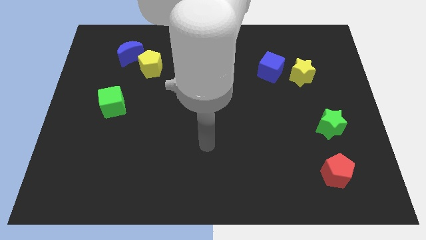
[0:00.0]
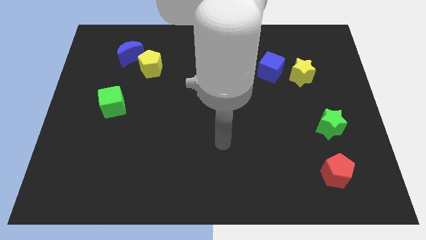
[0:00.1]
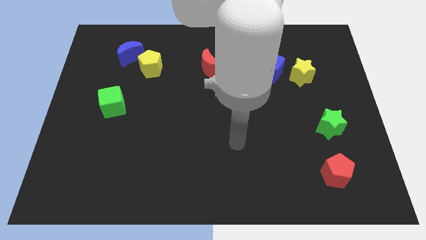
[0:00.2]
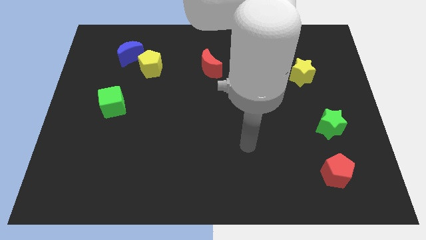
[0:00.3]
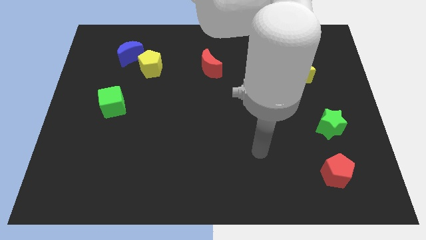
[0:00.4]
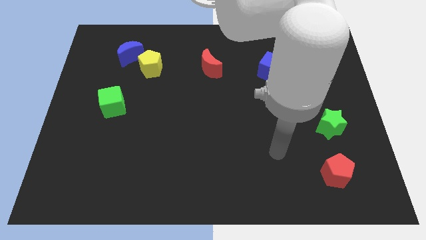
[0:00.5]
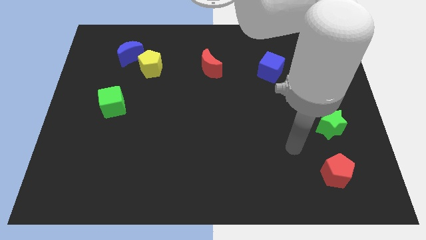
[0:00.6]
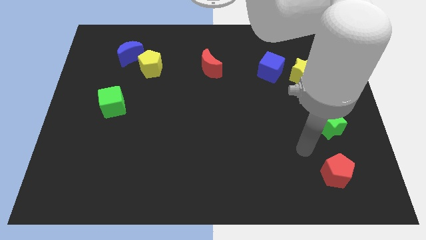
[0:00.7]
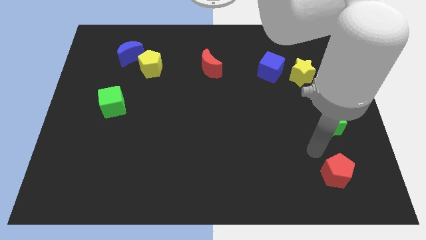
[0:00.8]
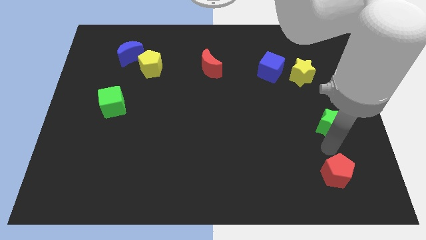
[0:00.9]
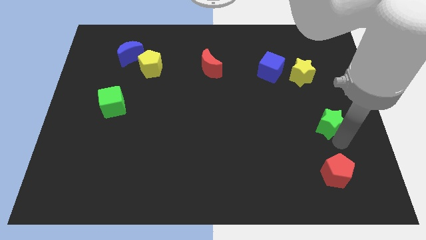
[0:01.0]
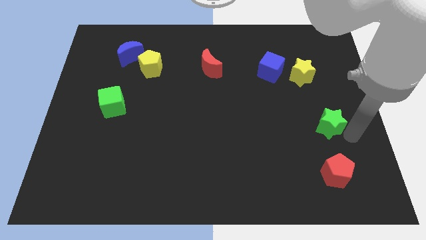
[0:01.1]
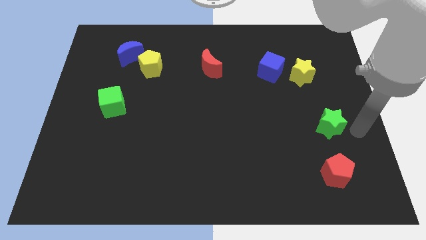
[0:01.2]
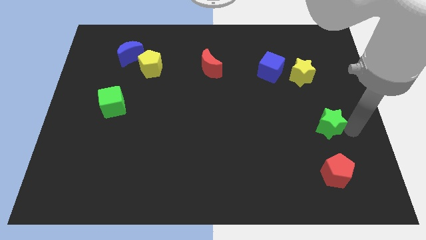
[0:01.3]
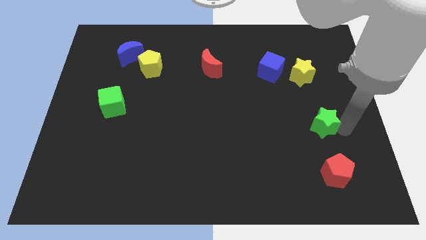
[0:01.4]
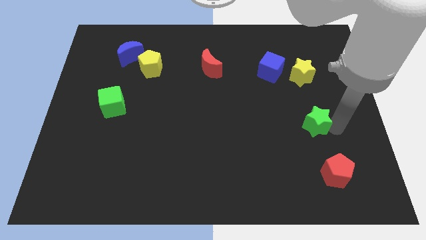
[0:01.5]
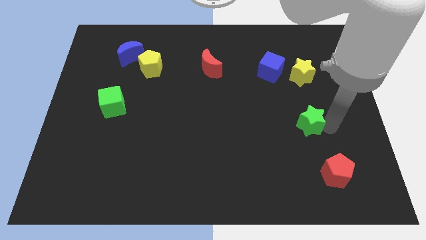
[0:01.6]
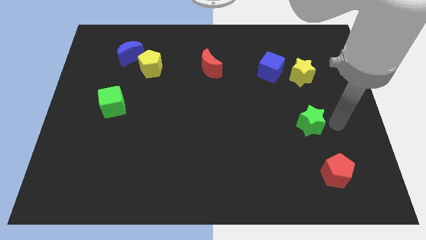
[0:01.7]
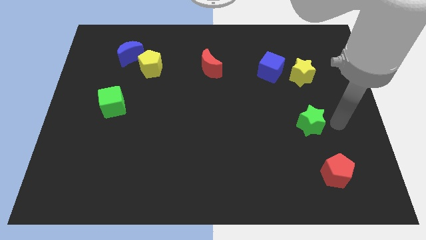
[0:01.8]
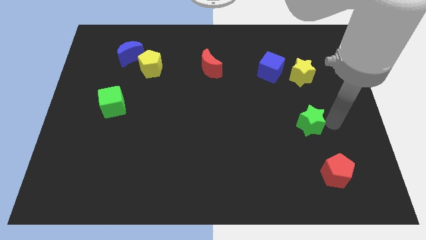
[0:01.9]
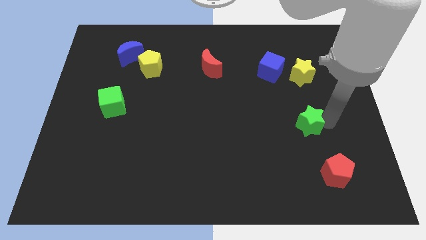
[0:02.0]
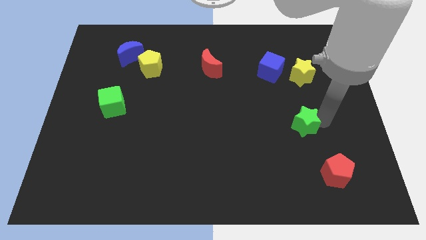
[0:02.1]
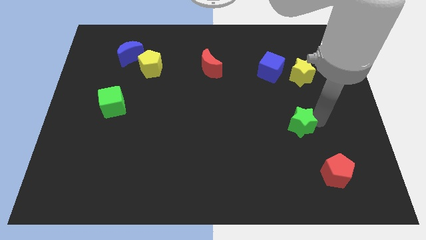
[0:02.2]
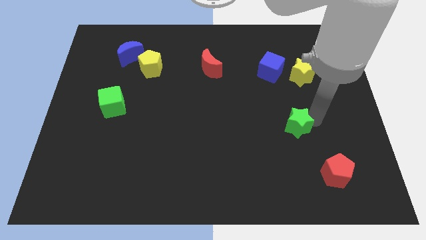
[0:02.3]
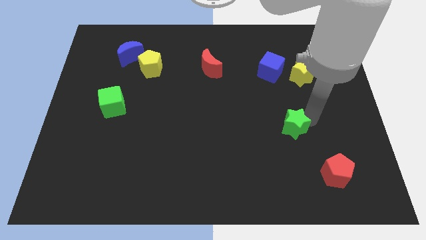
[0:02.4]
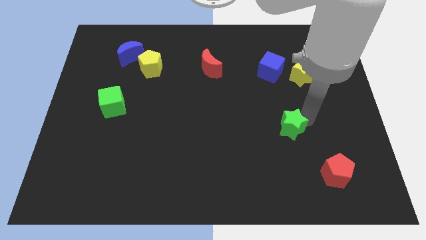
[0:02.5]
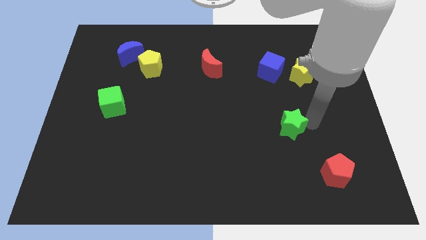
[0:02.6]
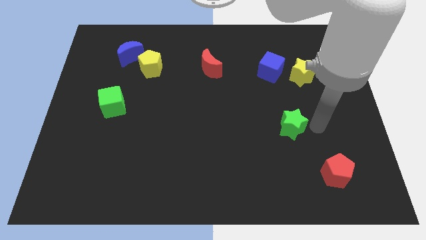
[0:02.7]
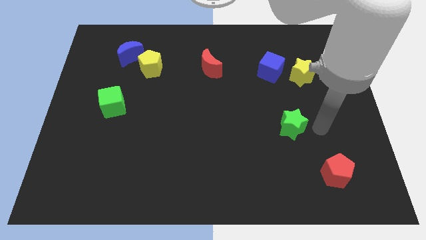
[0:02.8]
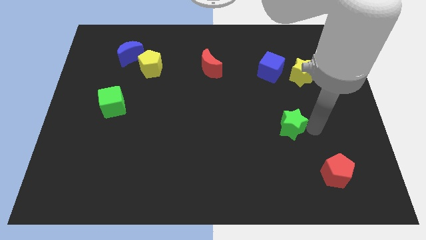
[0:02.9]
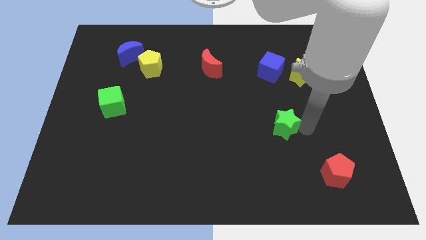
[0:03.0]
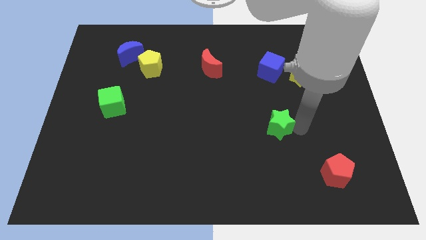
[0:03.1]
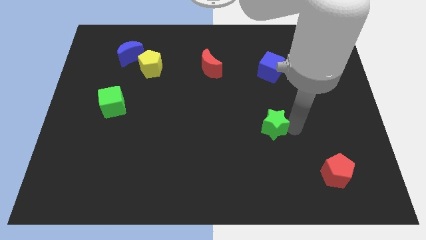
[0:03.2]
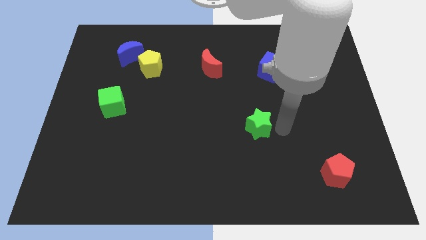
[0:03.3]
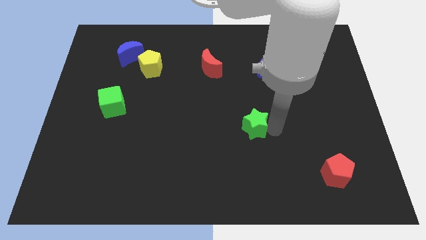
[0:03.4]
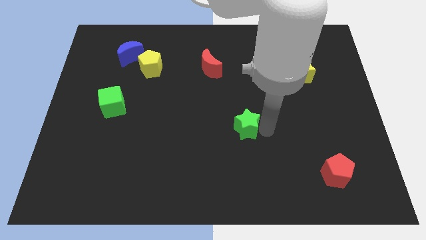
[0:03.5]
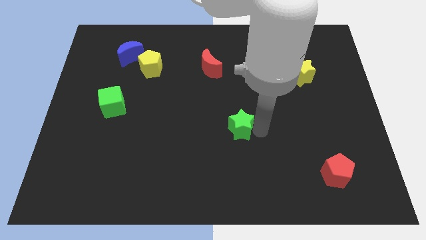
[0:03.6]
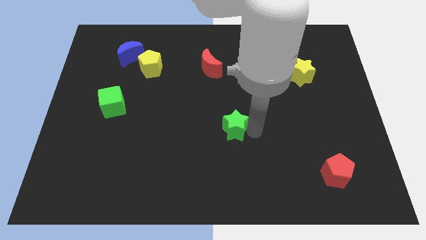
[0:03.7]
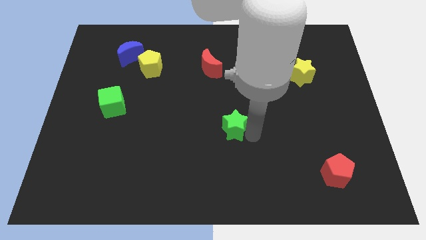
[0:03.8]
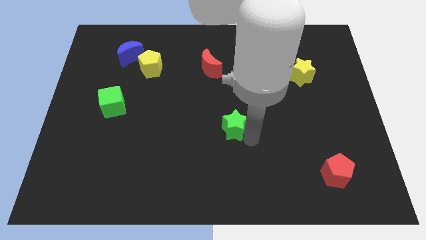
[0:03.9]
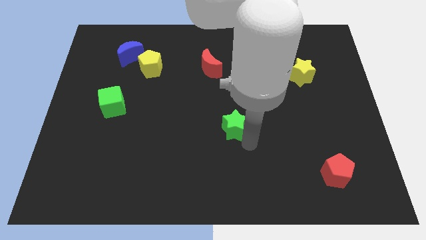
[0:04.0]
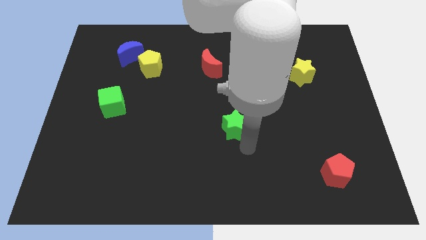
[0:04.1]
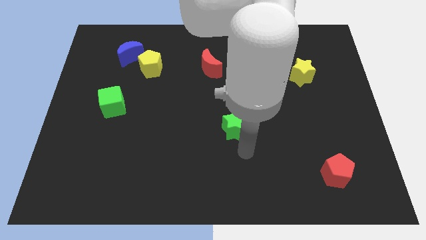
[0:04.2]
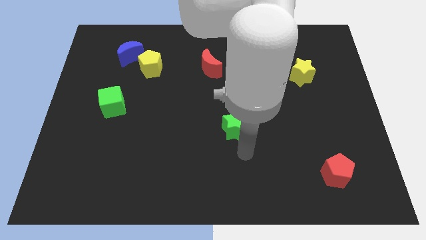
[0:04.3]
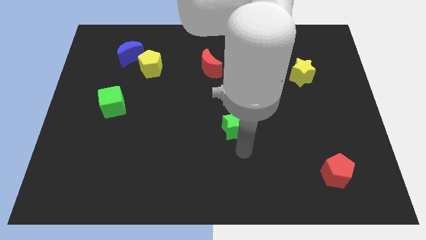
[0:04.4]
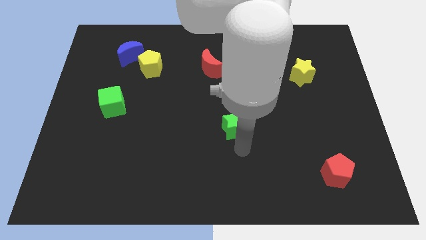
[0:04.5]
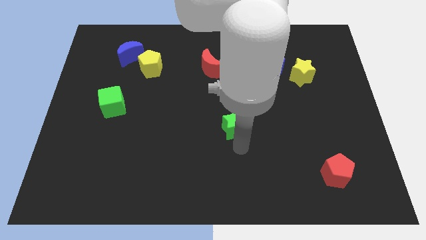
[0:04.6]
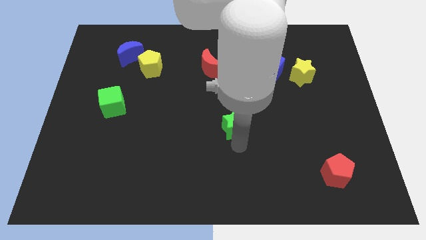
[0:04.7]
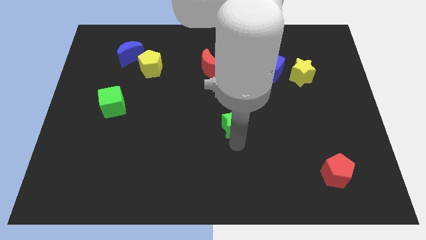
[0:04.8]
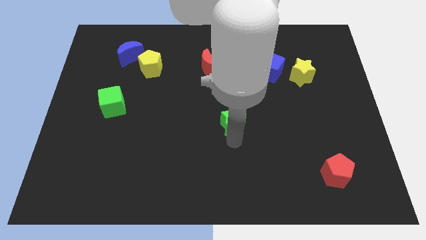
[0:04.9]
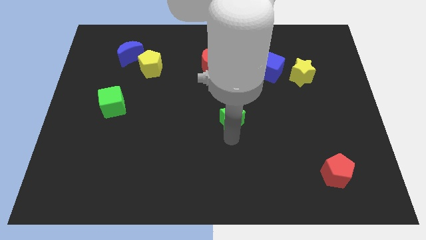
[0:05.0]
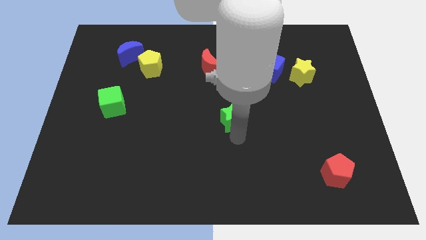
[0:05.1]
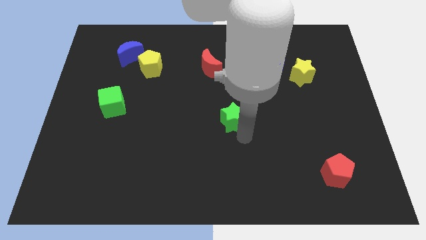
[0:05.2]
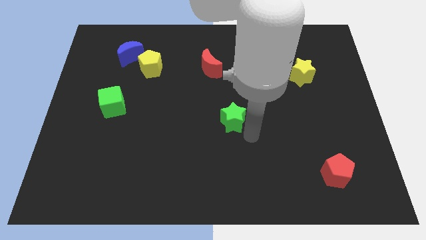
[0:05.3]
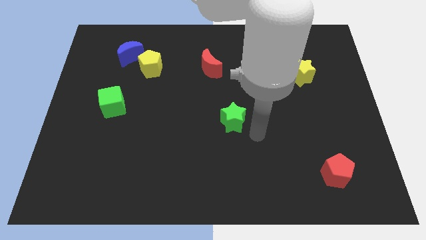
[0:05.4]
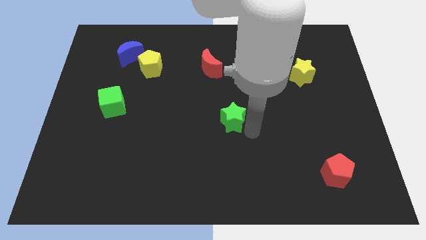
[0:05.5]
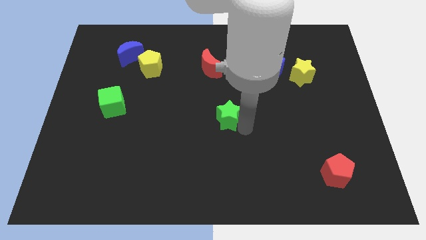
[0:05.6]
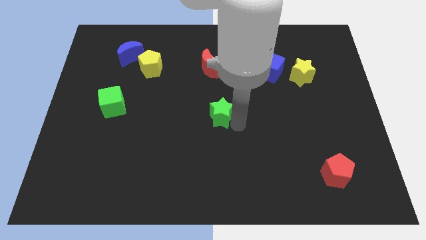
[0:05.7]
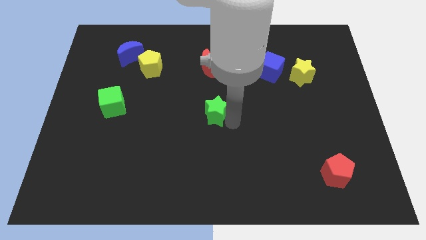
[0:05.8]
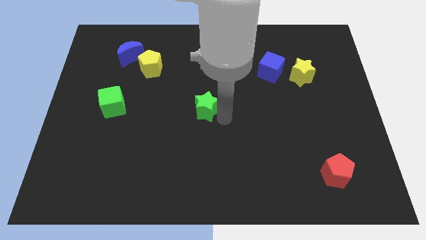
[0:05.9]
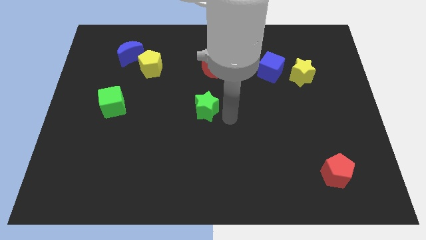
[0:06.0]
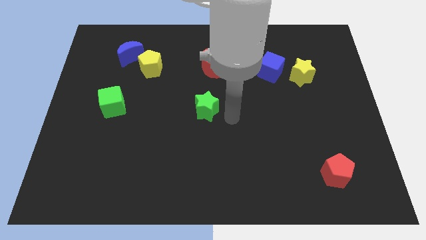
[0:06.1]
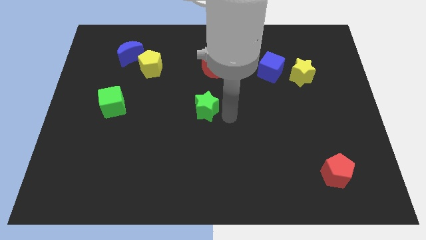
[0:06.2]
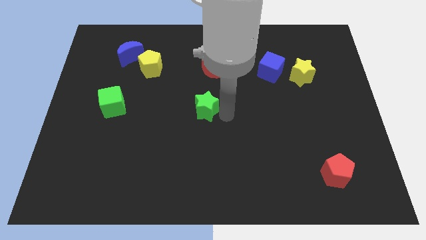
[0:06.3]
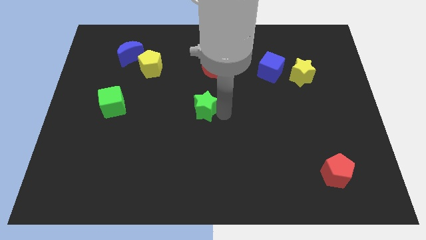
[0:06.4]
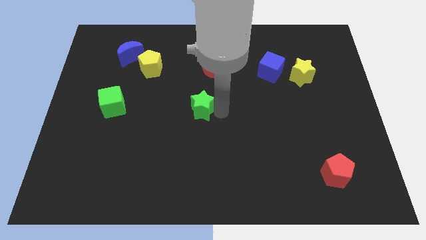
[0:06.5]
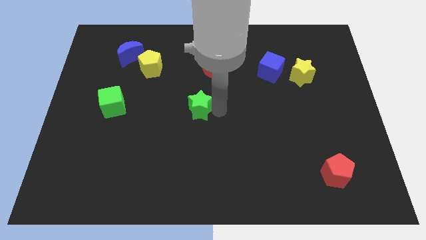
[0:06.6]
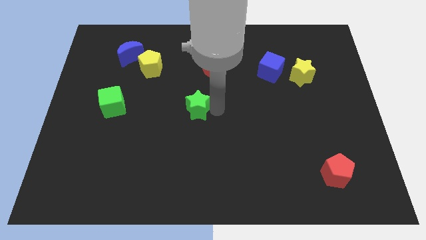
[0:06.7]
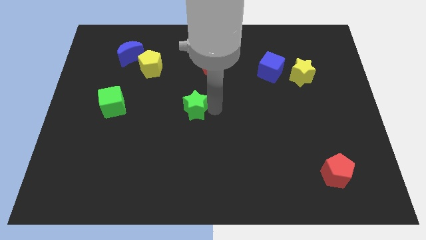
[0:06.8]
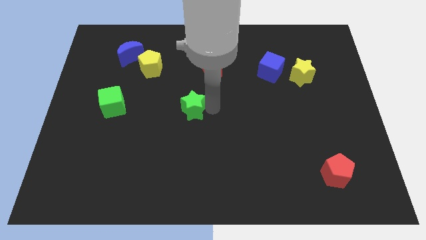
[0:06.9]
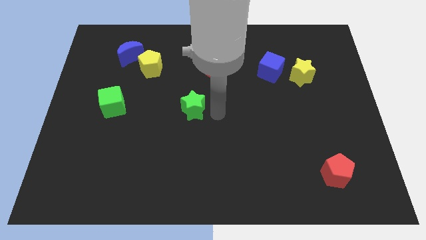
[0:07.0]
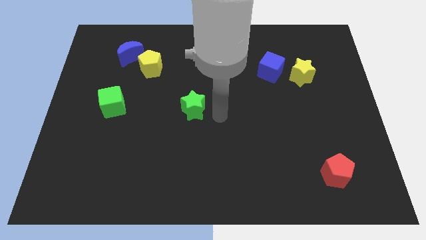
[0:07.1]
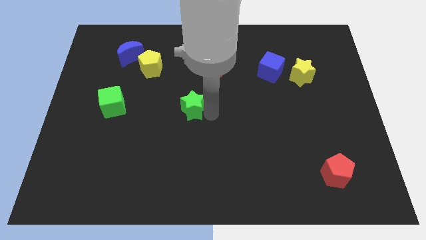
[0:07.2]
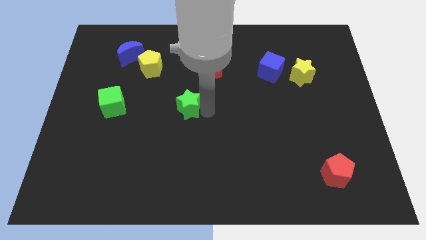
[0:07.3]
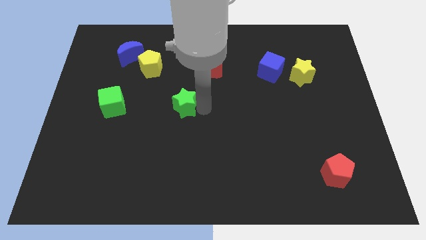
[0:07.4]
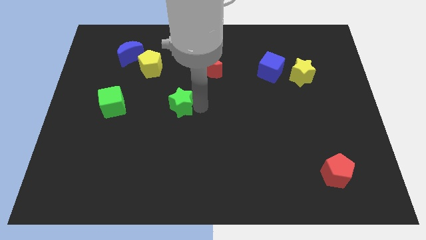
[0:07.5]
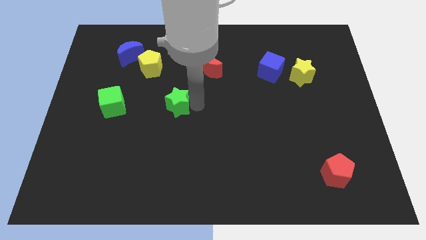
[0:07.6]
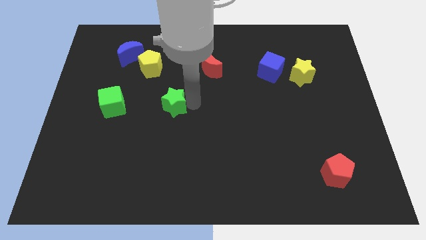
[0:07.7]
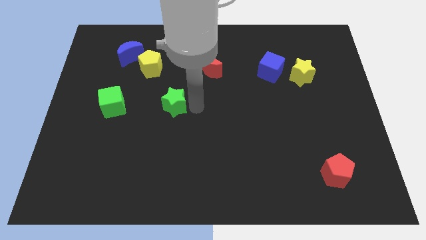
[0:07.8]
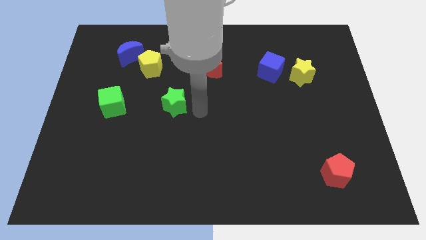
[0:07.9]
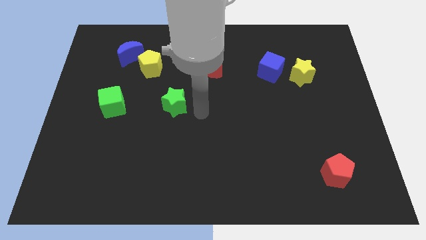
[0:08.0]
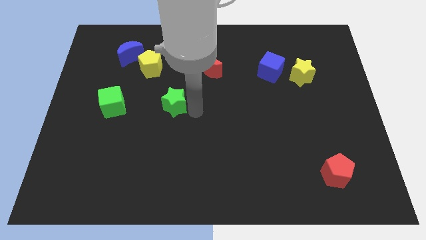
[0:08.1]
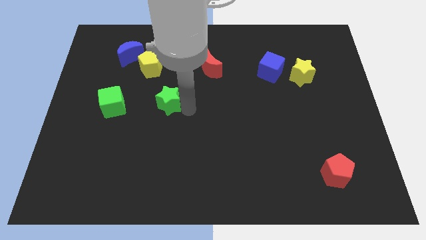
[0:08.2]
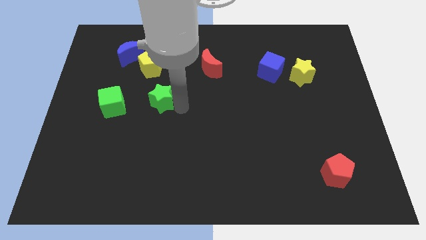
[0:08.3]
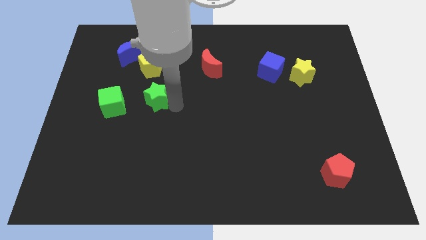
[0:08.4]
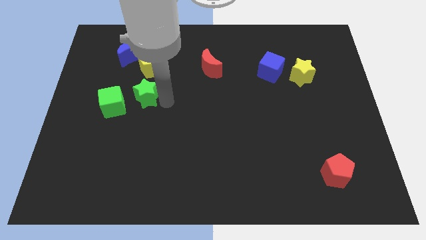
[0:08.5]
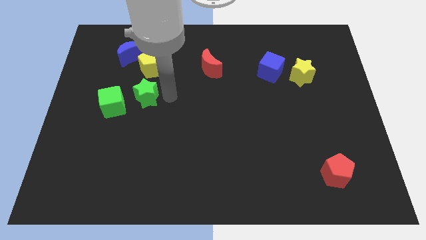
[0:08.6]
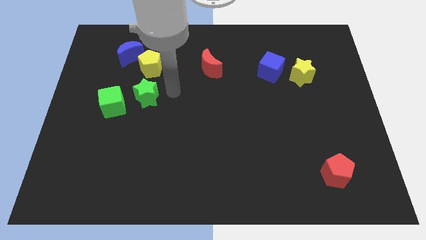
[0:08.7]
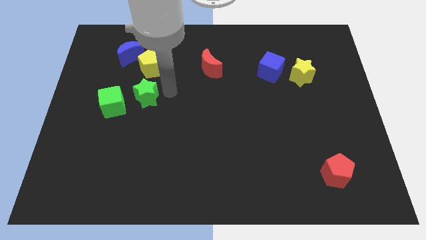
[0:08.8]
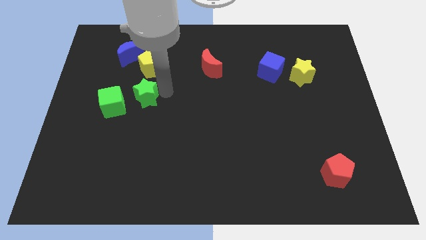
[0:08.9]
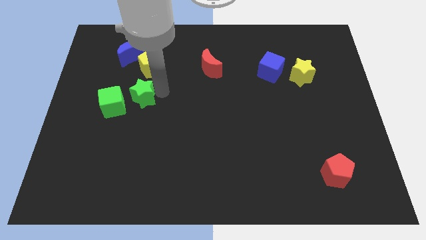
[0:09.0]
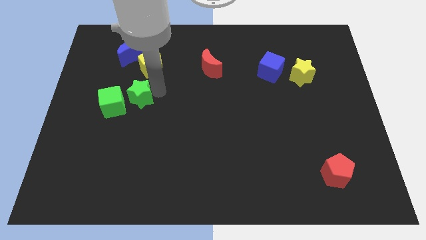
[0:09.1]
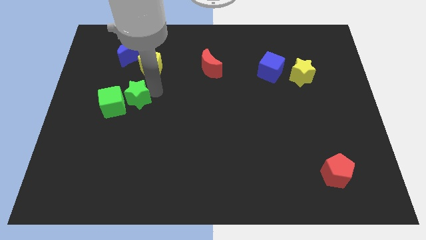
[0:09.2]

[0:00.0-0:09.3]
put the green star close to the green cube
